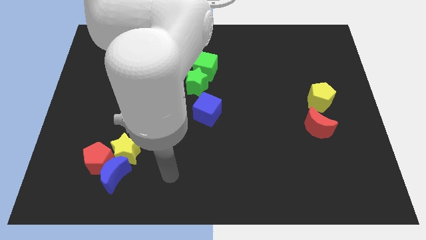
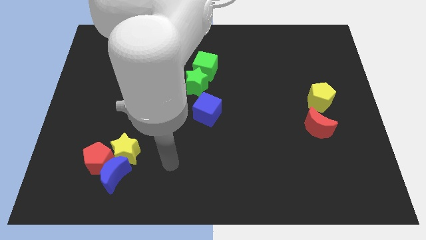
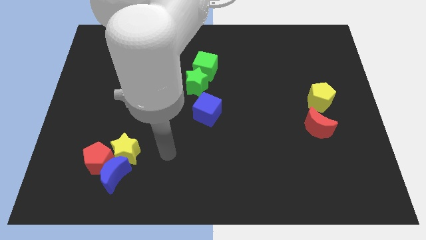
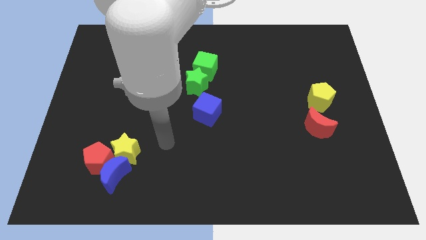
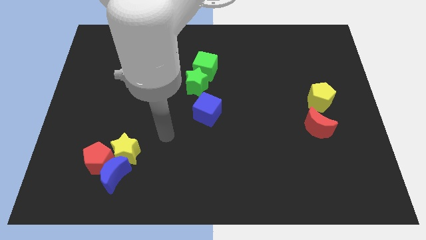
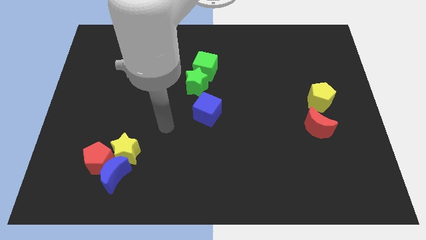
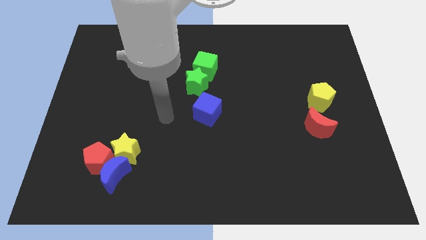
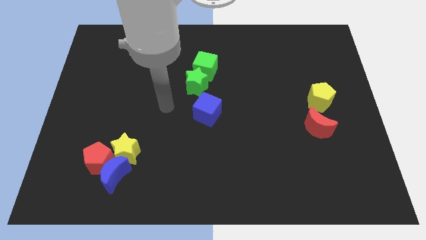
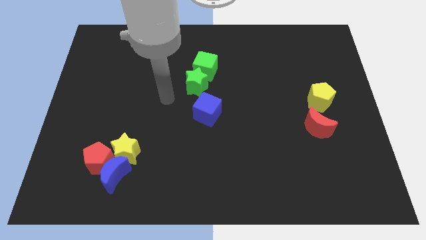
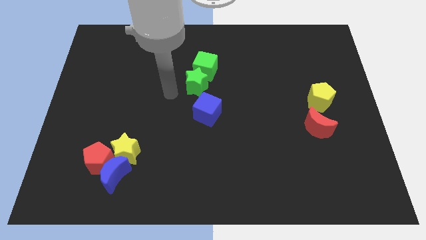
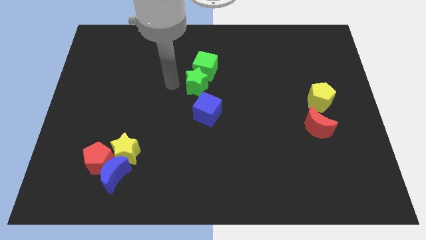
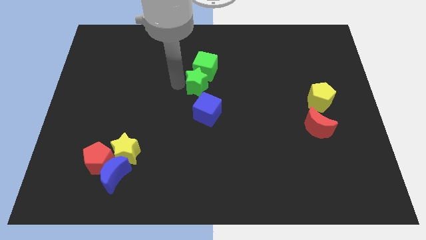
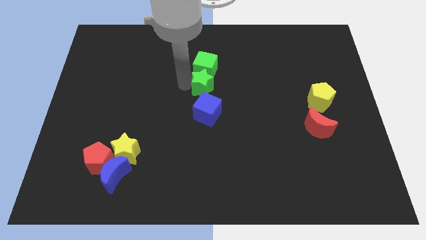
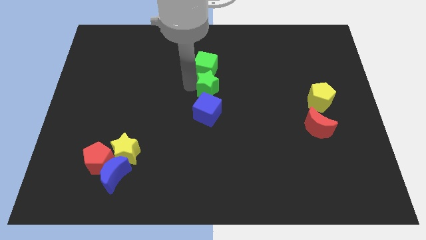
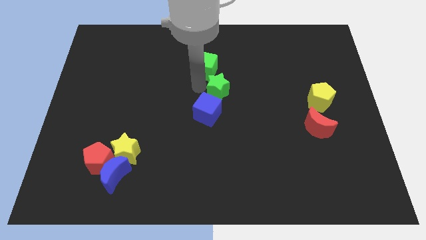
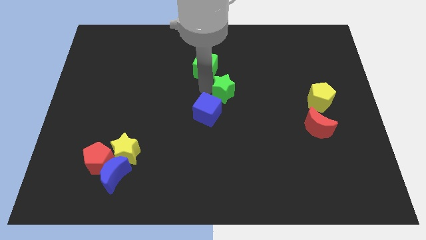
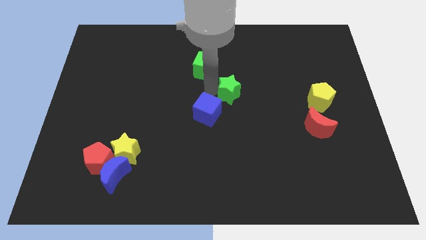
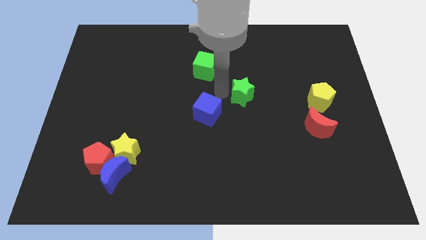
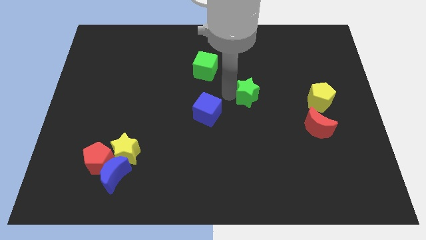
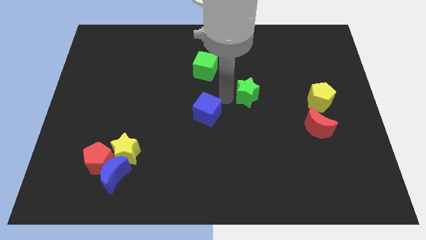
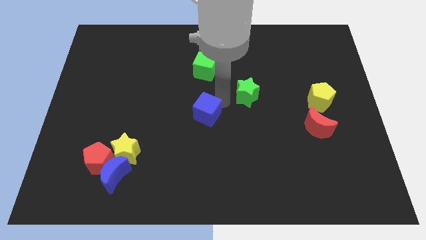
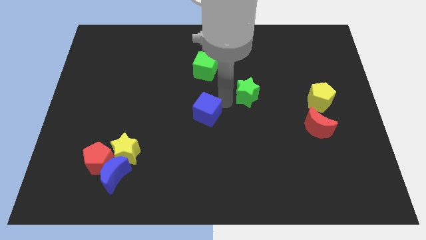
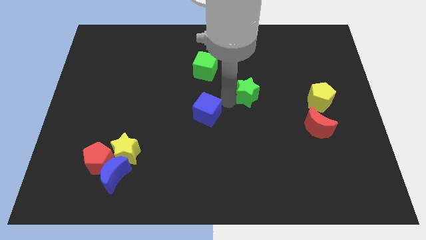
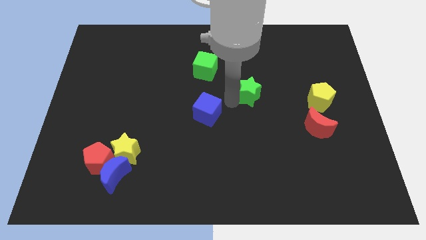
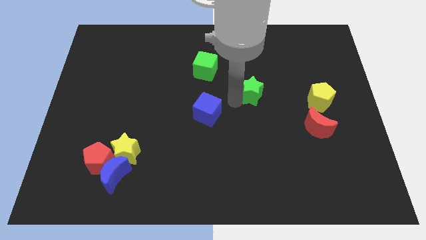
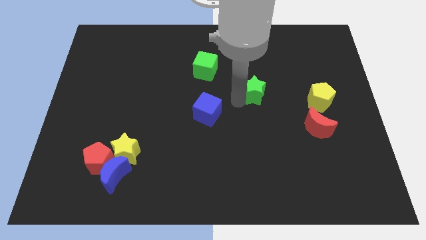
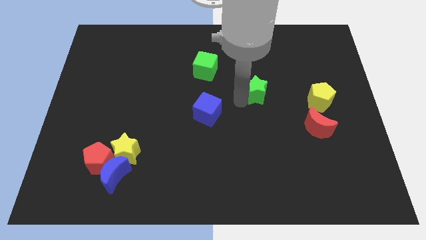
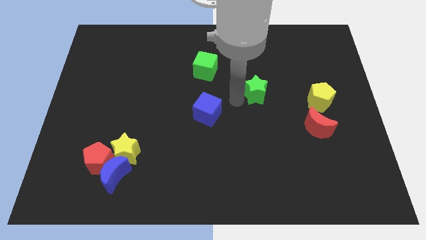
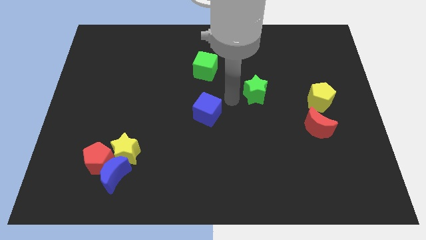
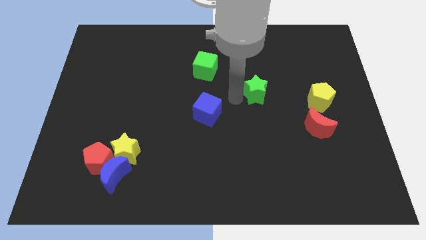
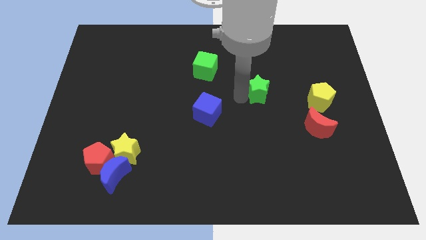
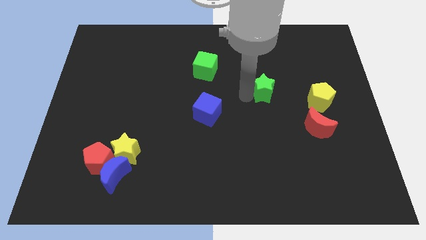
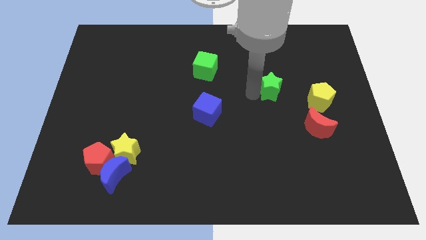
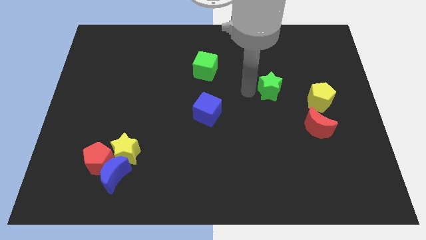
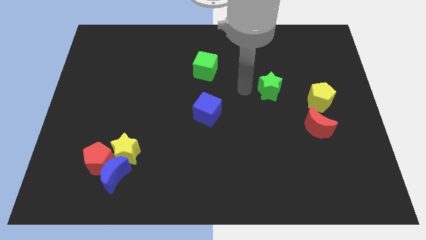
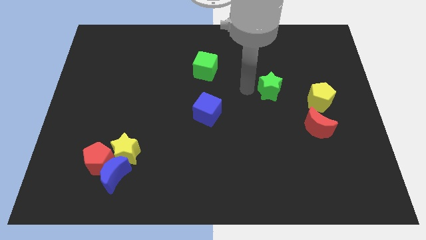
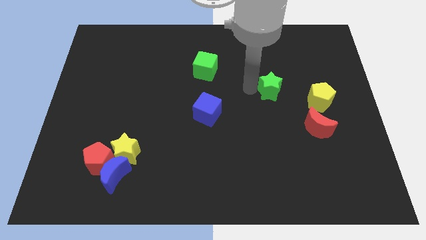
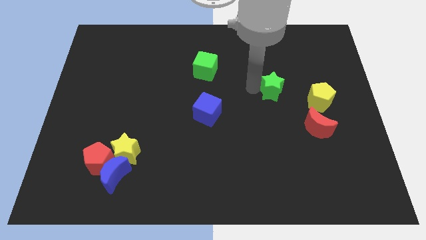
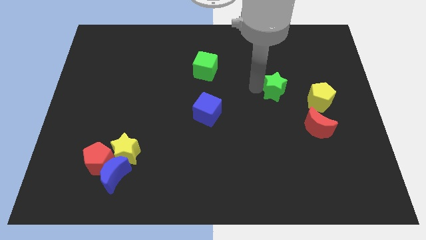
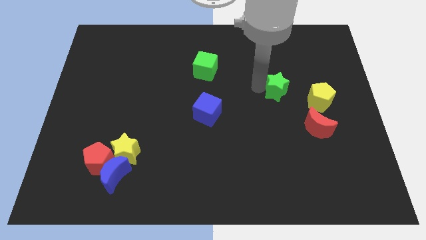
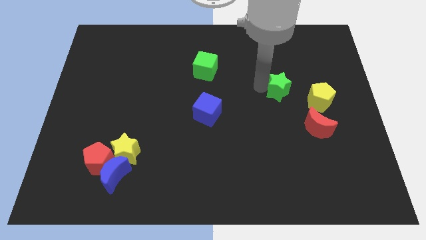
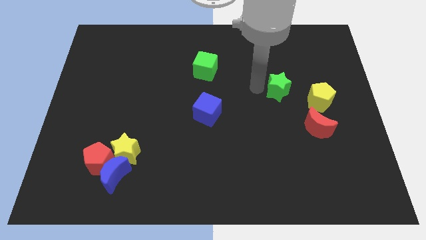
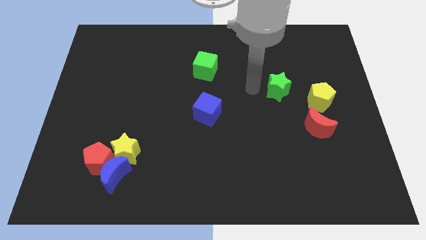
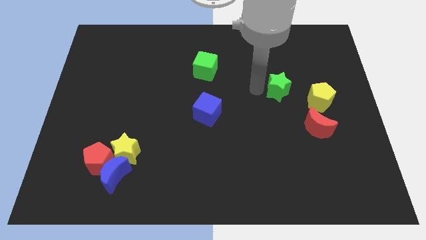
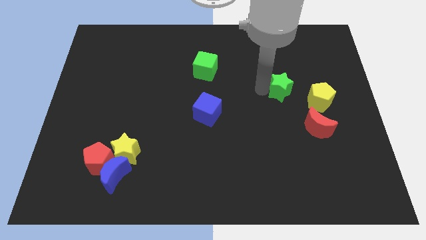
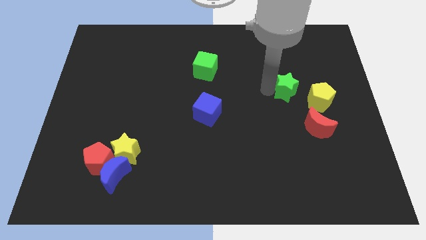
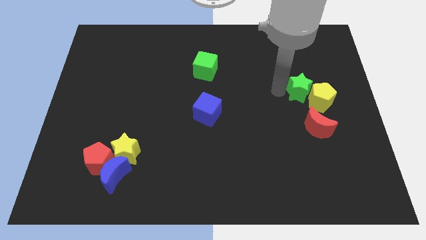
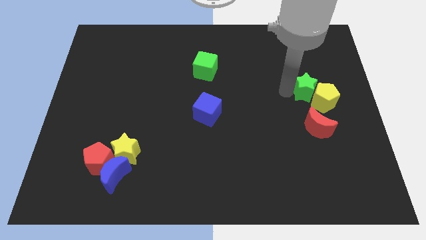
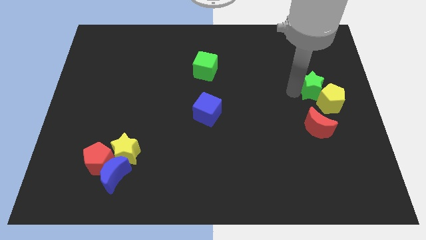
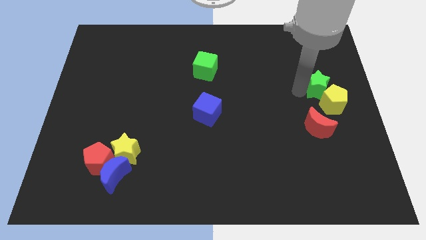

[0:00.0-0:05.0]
put the green star to the right side of the board

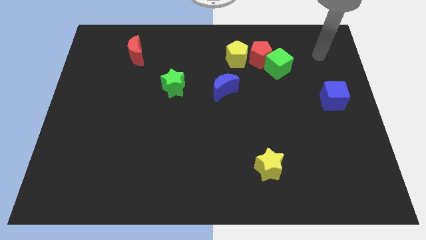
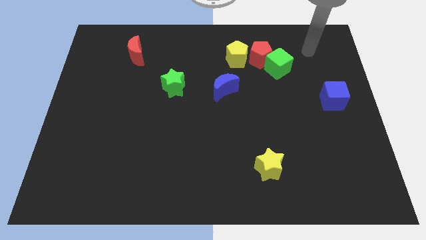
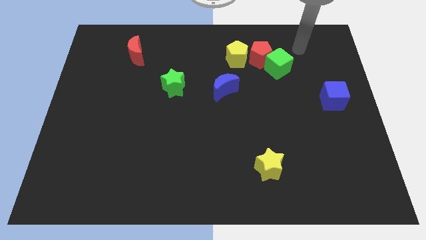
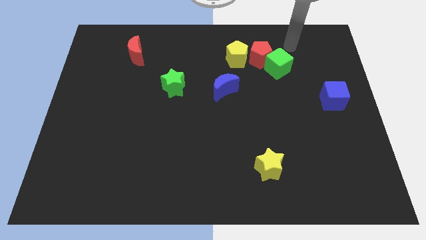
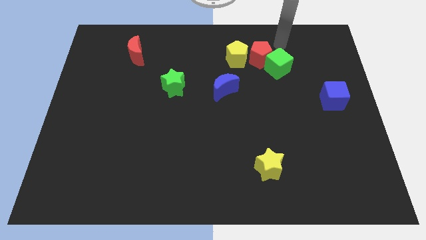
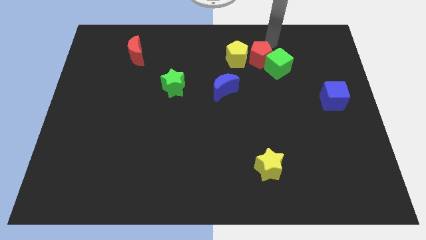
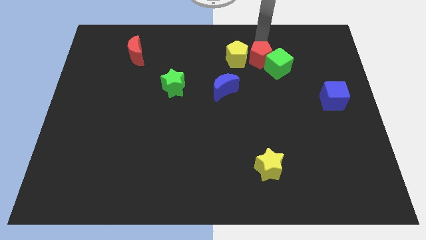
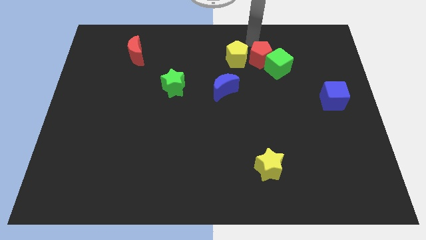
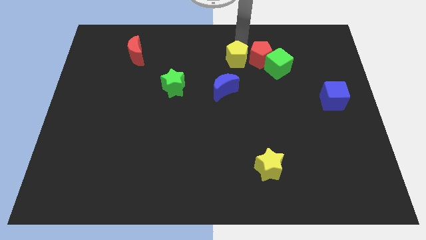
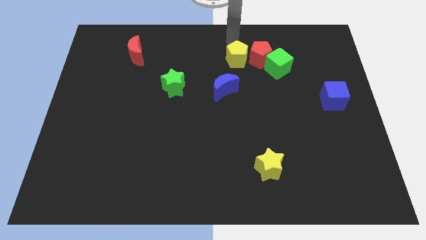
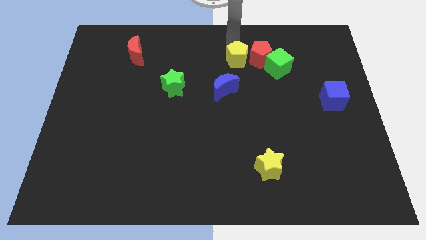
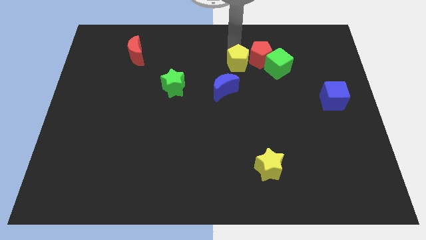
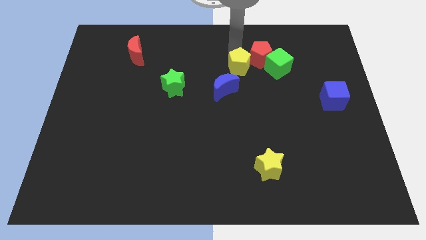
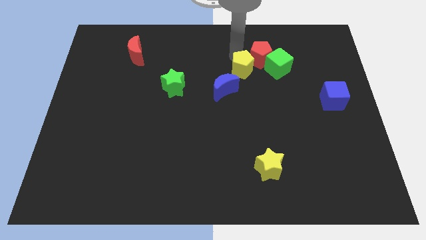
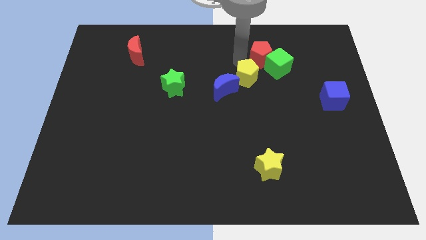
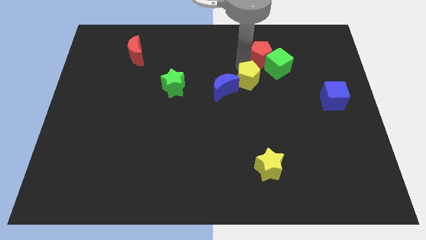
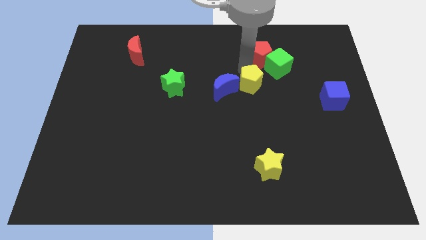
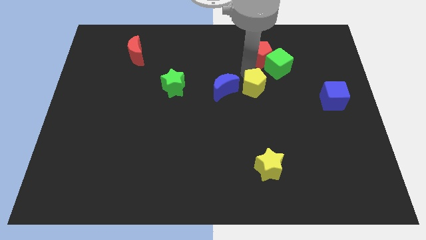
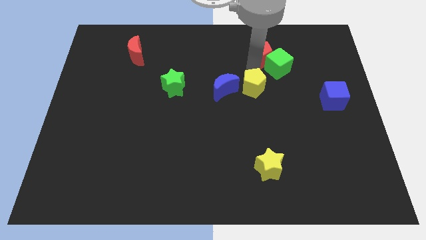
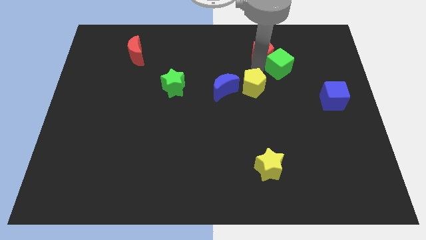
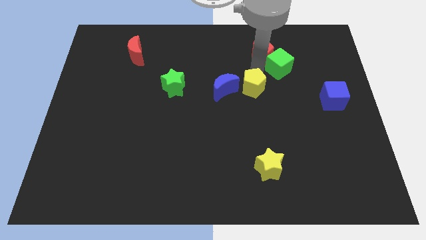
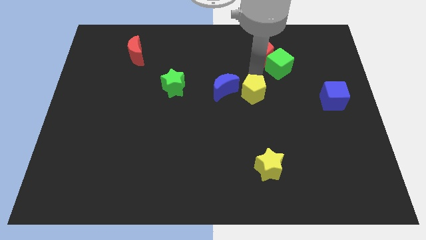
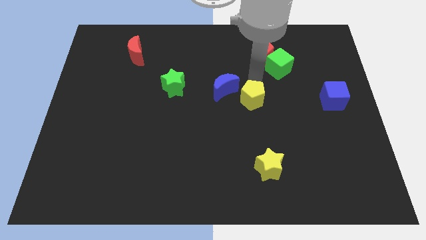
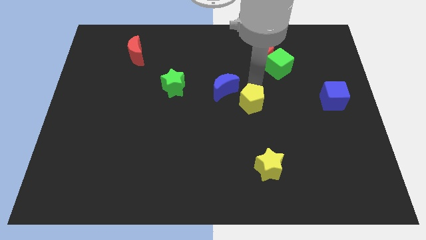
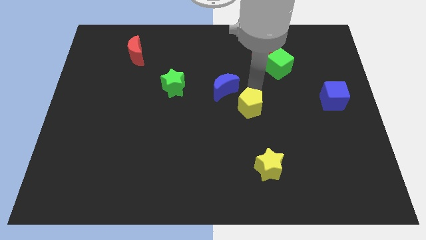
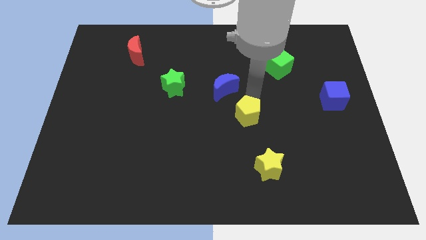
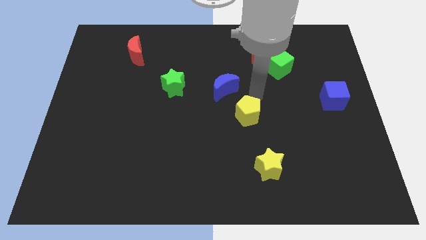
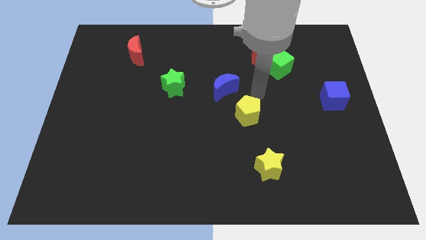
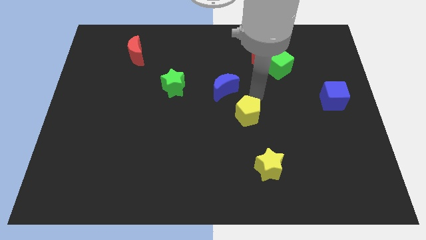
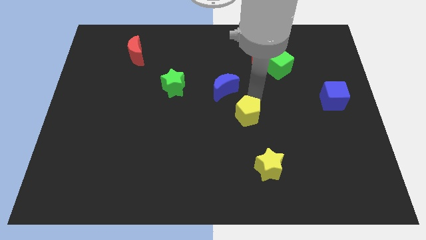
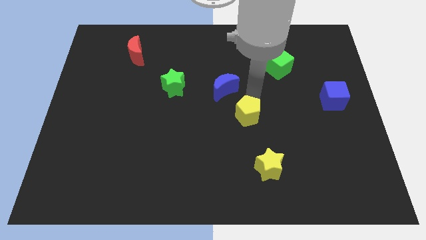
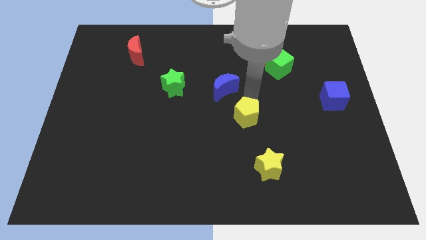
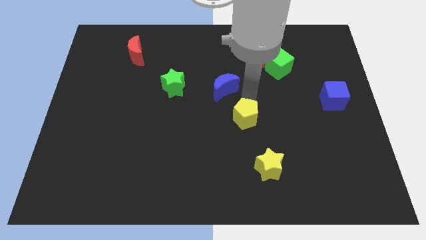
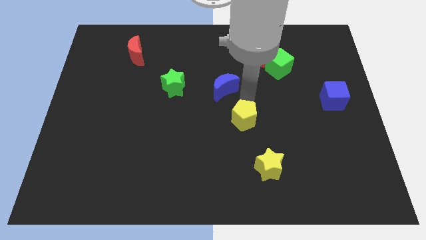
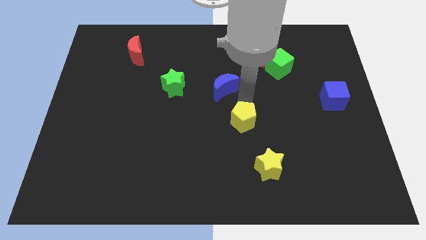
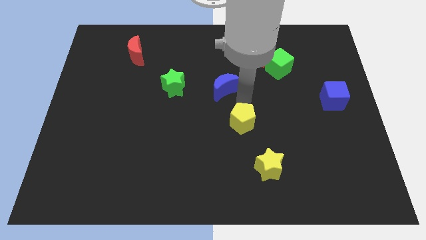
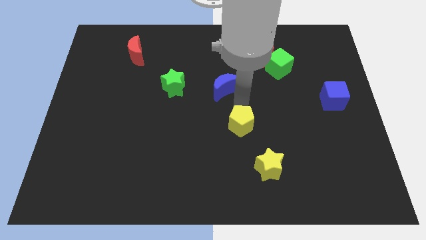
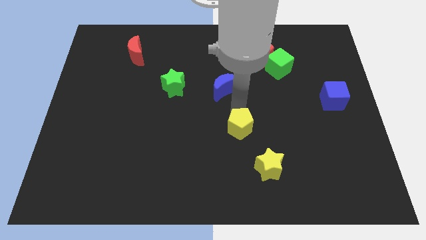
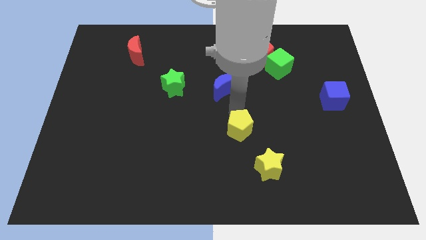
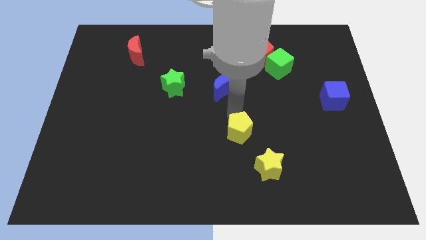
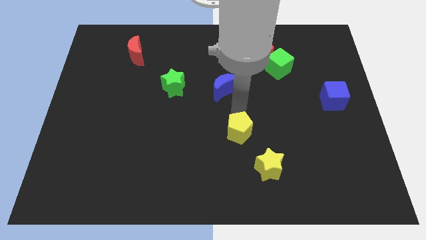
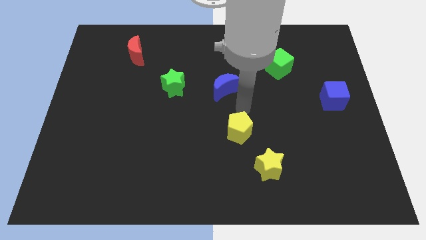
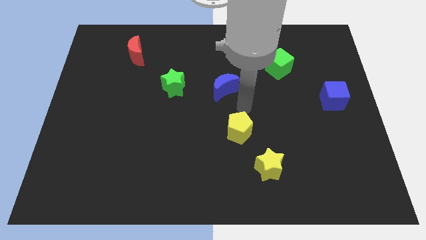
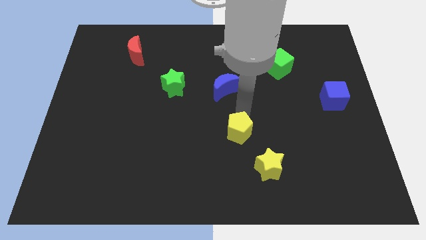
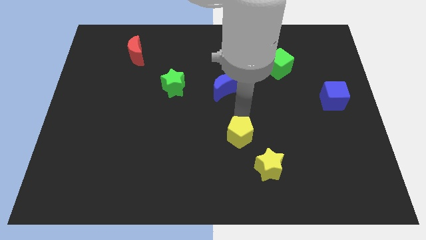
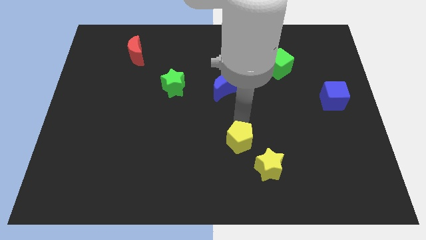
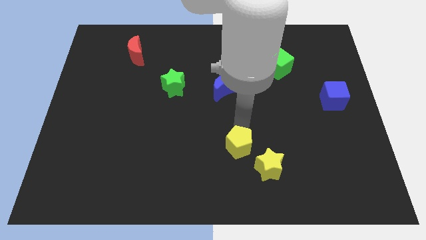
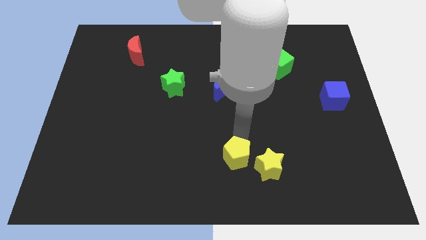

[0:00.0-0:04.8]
slide the yellow pentagon to the bottom
